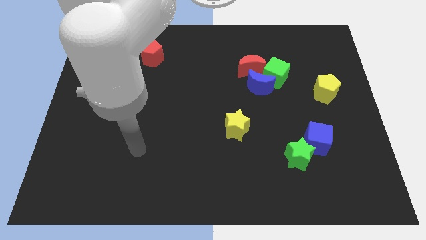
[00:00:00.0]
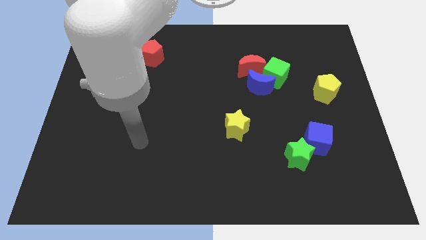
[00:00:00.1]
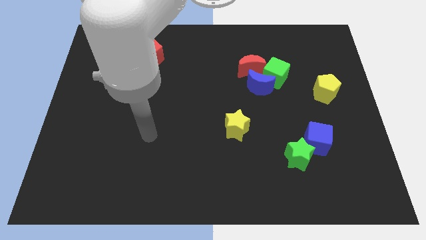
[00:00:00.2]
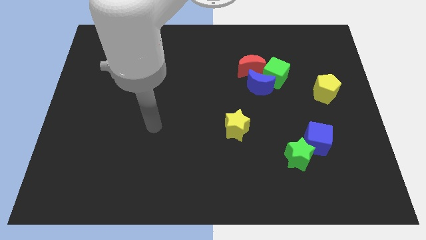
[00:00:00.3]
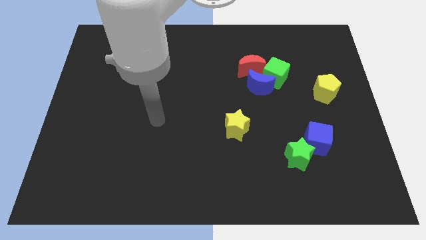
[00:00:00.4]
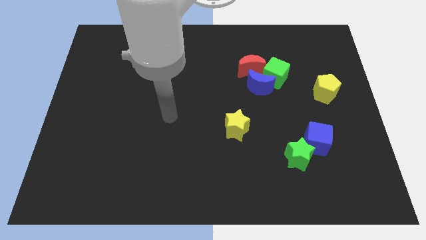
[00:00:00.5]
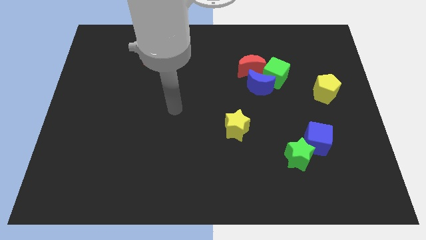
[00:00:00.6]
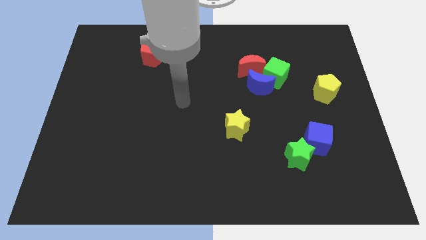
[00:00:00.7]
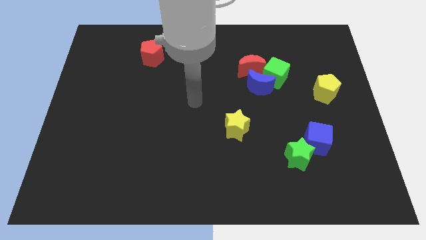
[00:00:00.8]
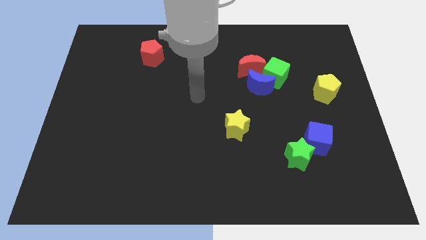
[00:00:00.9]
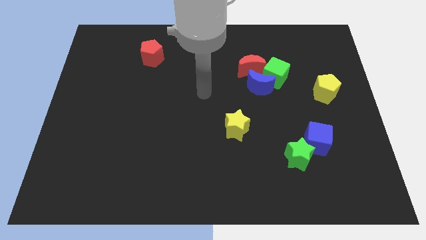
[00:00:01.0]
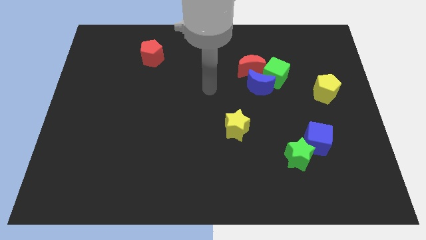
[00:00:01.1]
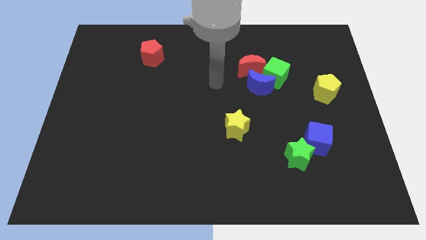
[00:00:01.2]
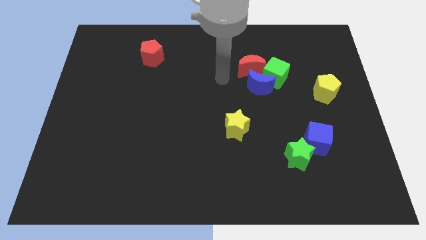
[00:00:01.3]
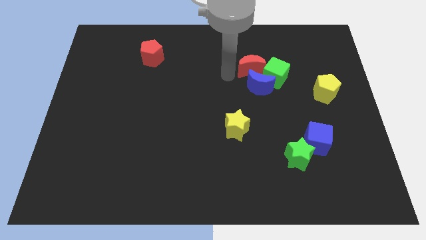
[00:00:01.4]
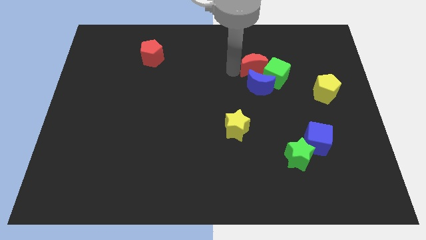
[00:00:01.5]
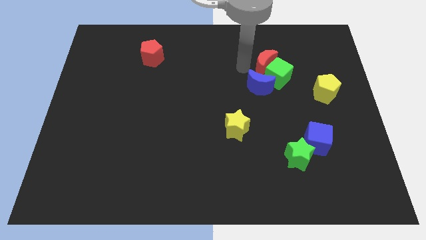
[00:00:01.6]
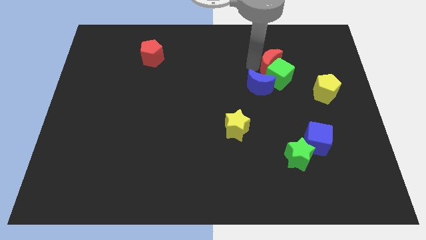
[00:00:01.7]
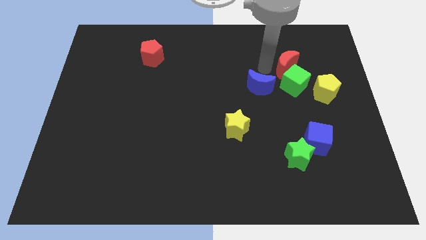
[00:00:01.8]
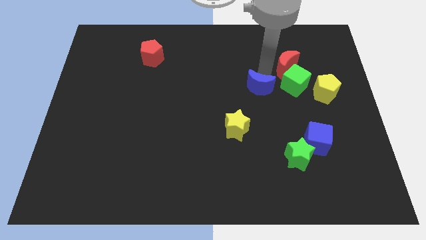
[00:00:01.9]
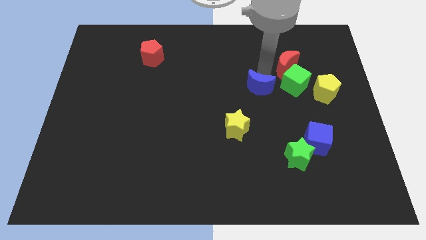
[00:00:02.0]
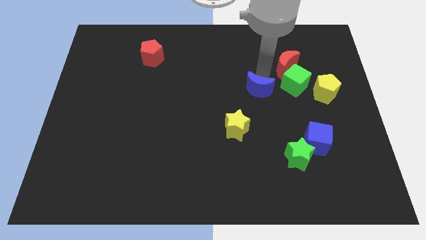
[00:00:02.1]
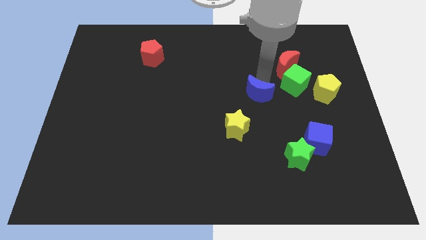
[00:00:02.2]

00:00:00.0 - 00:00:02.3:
pull the blue moon apart from the green cube and red moon

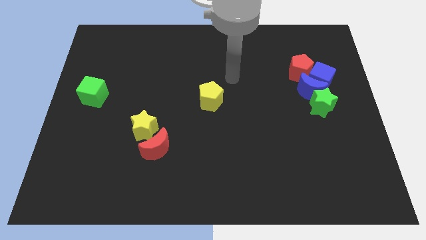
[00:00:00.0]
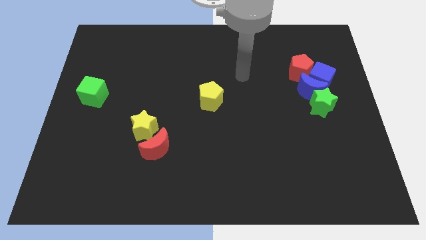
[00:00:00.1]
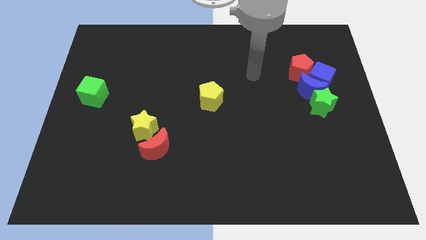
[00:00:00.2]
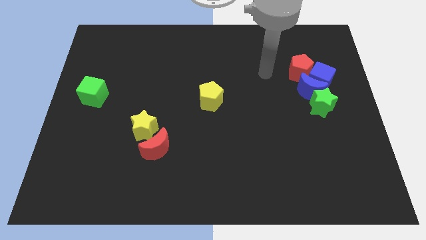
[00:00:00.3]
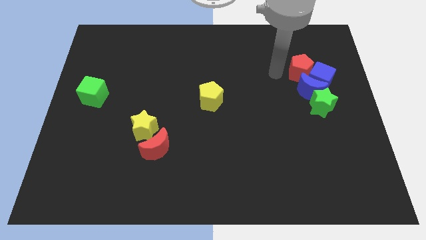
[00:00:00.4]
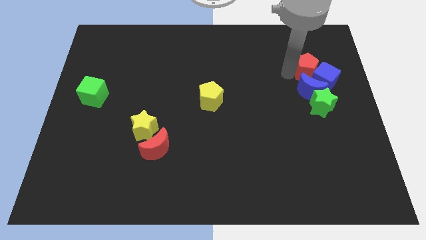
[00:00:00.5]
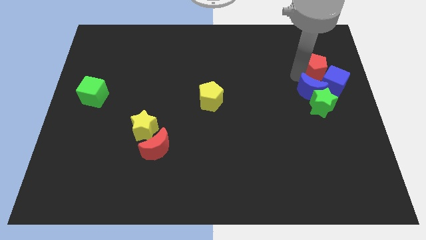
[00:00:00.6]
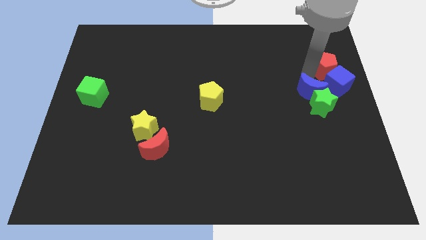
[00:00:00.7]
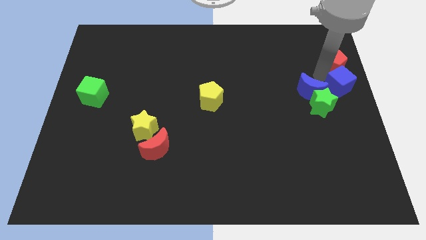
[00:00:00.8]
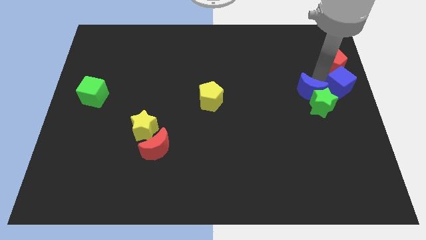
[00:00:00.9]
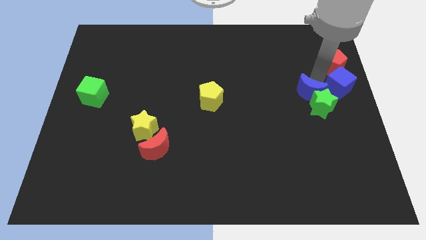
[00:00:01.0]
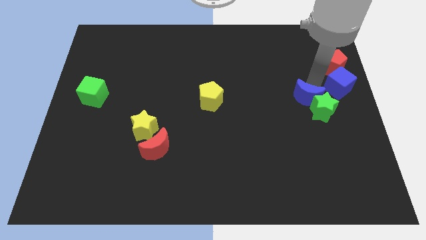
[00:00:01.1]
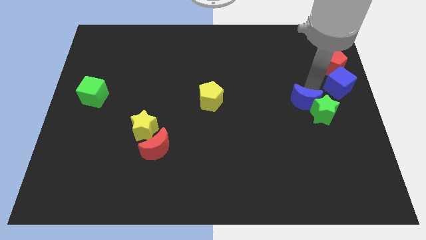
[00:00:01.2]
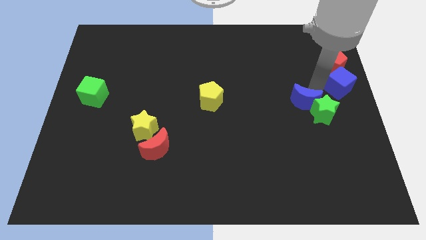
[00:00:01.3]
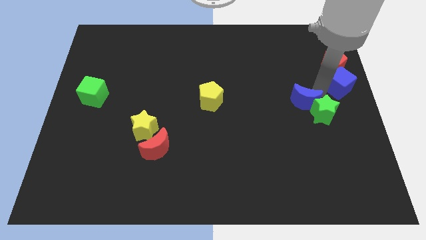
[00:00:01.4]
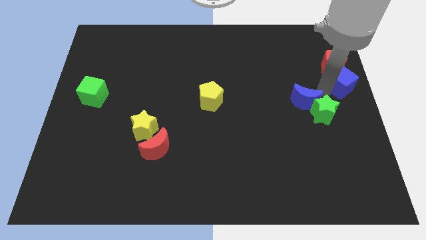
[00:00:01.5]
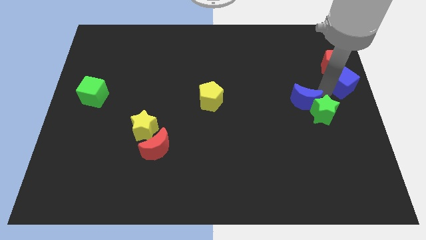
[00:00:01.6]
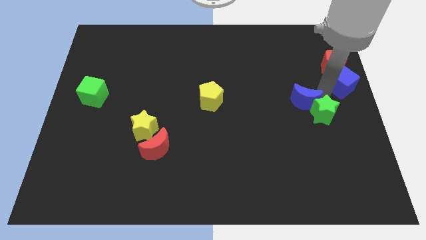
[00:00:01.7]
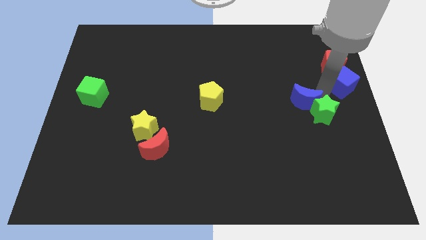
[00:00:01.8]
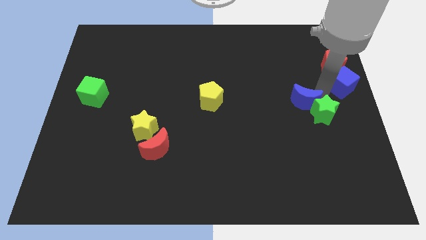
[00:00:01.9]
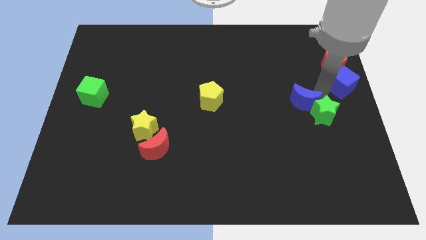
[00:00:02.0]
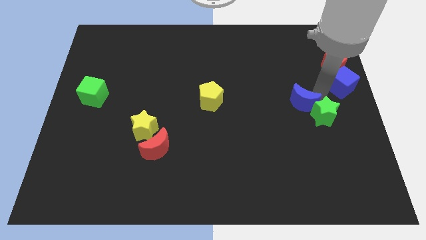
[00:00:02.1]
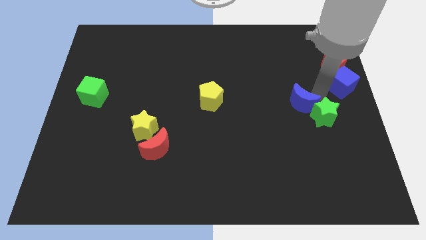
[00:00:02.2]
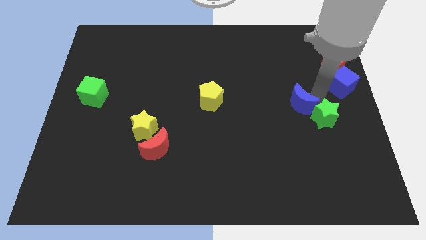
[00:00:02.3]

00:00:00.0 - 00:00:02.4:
move the blue moon away from the blue cube, green star, and red pentagon

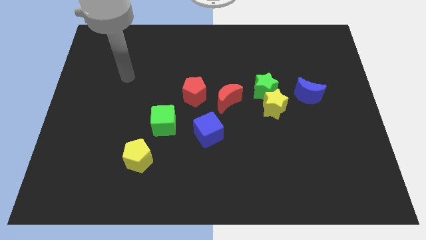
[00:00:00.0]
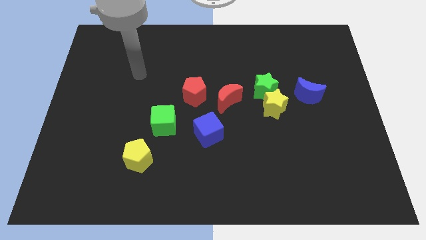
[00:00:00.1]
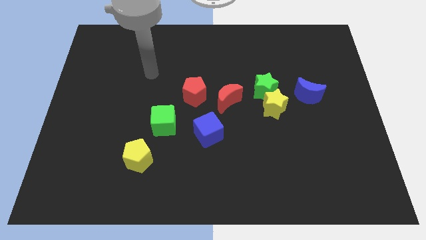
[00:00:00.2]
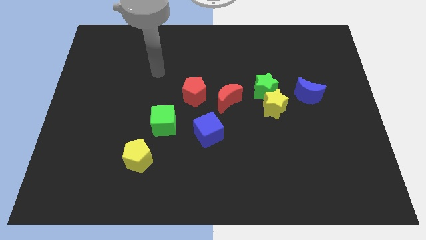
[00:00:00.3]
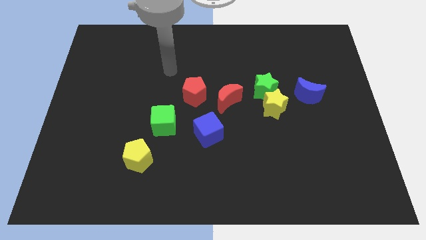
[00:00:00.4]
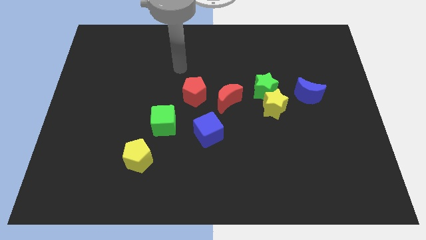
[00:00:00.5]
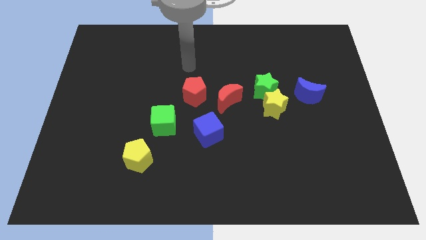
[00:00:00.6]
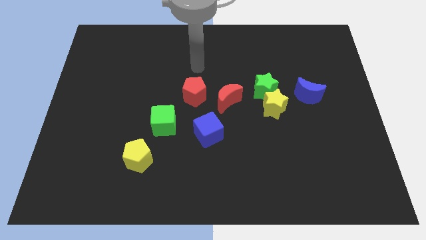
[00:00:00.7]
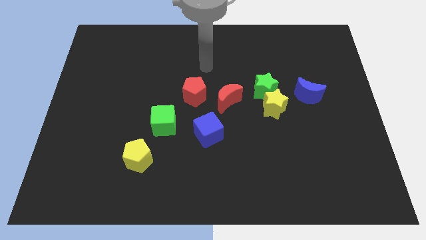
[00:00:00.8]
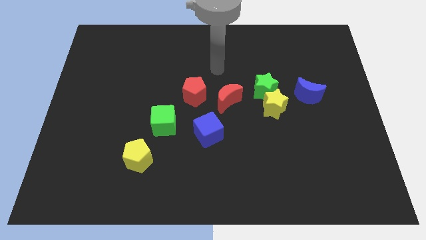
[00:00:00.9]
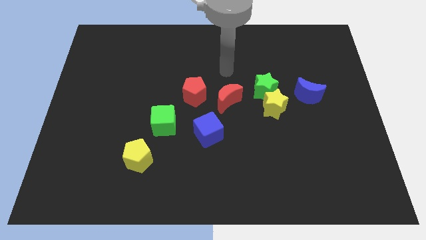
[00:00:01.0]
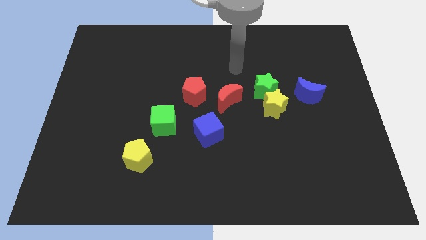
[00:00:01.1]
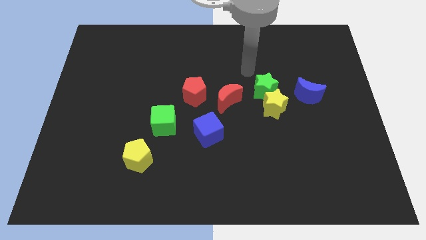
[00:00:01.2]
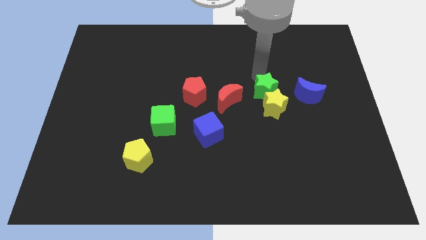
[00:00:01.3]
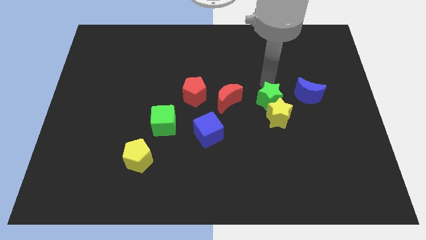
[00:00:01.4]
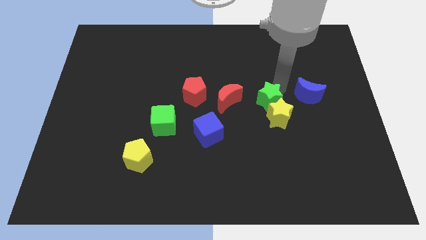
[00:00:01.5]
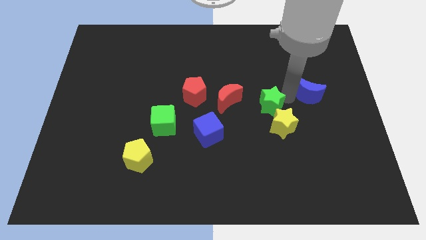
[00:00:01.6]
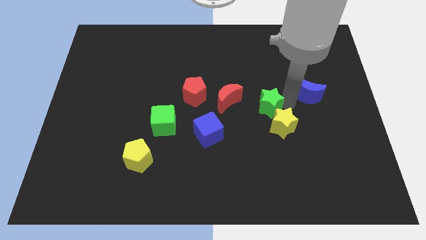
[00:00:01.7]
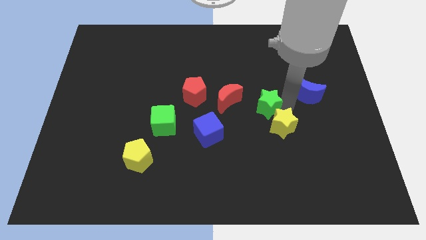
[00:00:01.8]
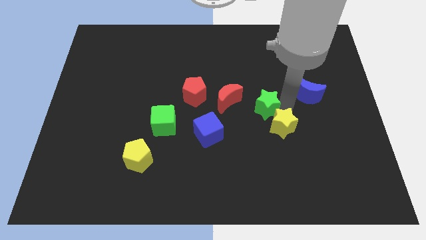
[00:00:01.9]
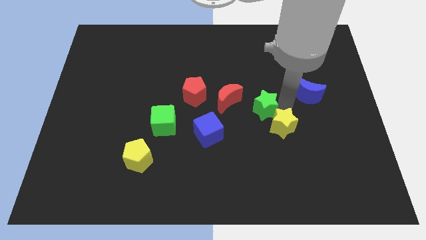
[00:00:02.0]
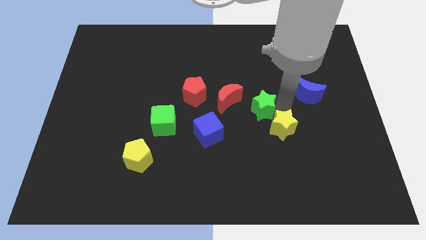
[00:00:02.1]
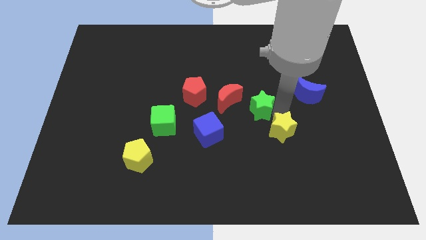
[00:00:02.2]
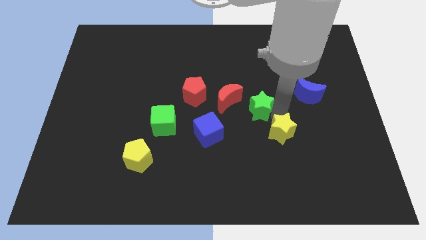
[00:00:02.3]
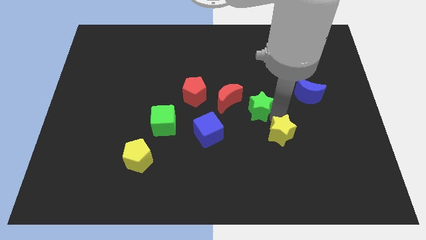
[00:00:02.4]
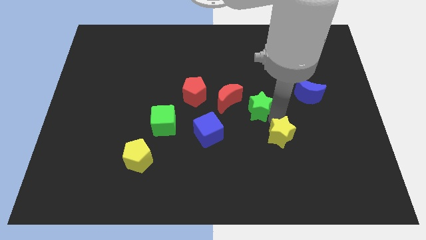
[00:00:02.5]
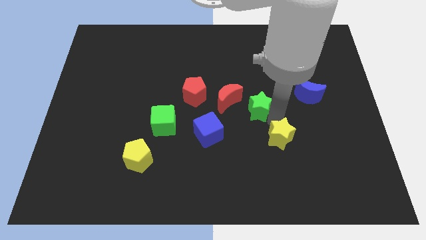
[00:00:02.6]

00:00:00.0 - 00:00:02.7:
move the yellow star away from the green star and blue moon

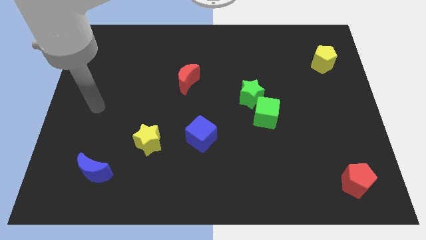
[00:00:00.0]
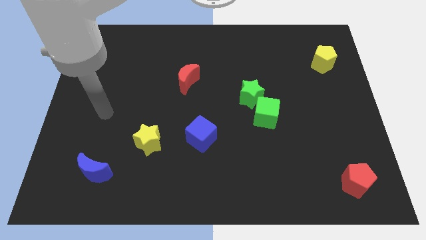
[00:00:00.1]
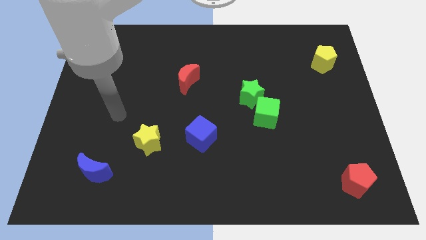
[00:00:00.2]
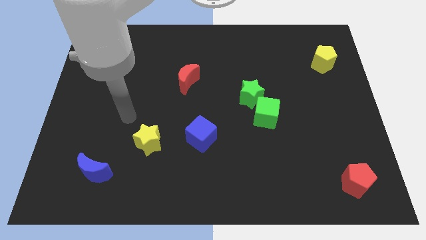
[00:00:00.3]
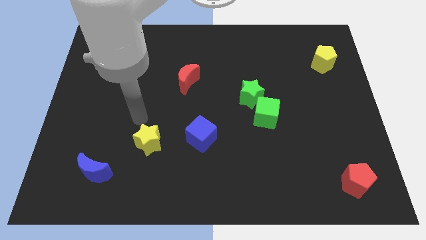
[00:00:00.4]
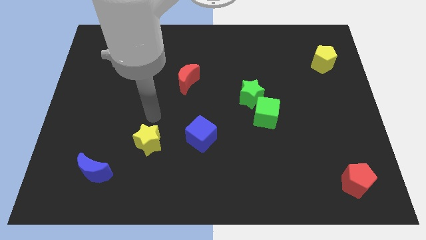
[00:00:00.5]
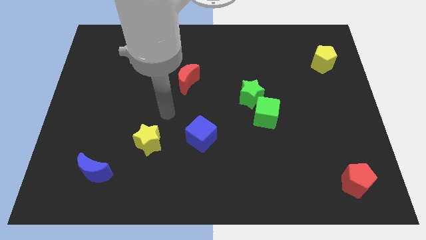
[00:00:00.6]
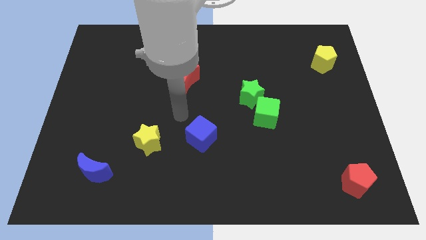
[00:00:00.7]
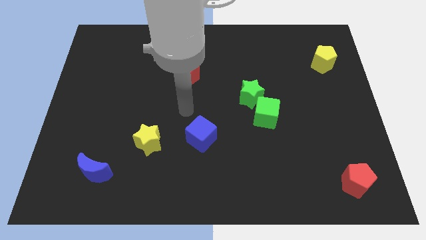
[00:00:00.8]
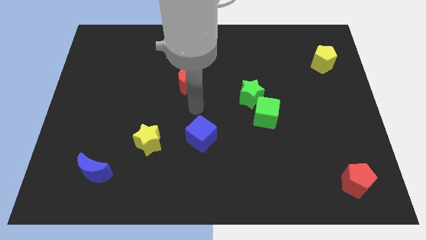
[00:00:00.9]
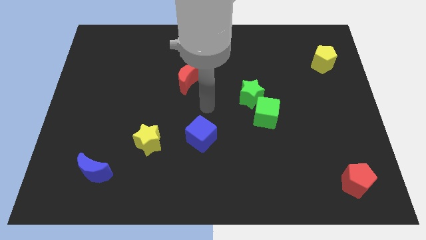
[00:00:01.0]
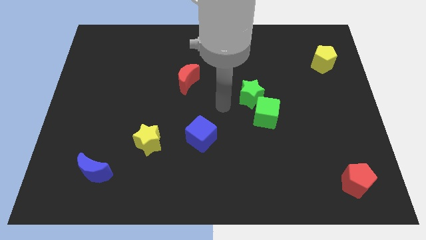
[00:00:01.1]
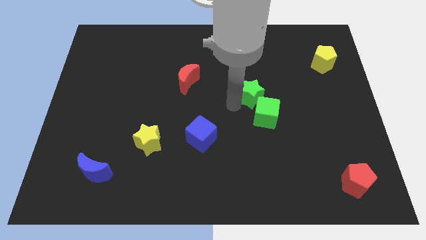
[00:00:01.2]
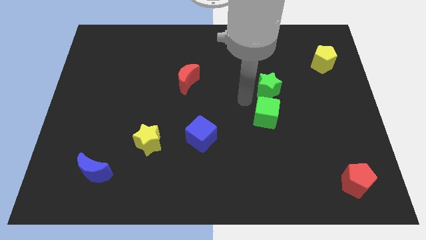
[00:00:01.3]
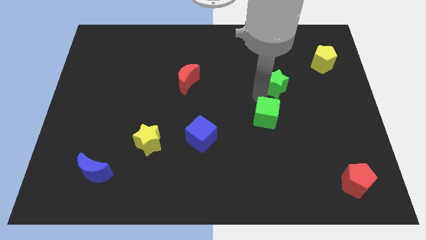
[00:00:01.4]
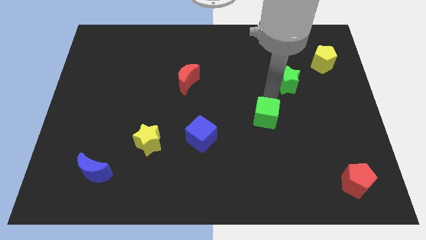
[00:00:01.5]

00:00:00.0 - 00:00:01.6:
separate the green cube from the green star

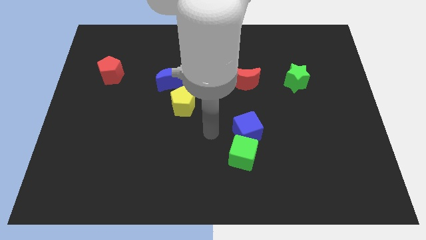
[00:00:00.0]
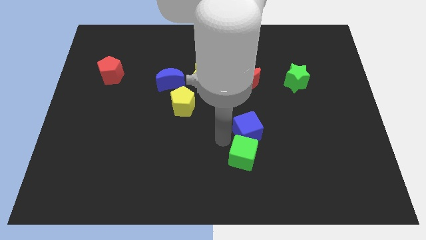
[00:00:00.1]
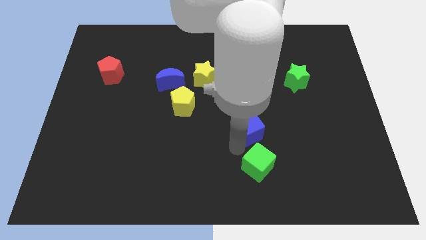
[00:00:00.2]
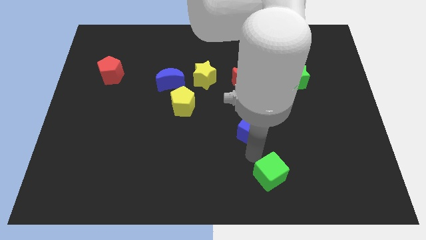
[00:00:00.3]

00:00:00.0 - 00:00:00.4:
pull the blue cube apart from the green cube
